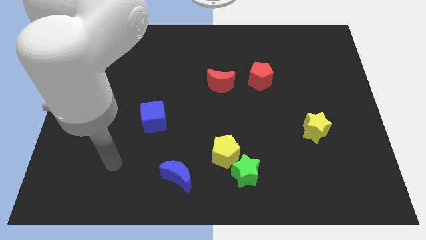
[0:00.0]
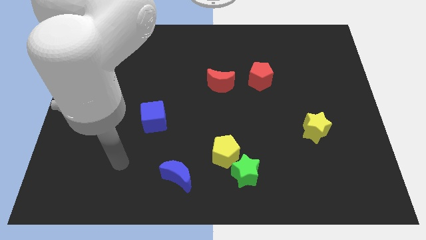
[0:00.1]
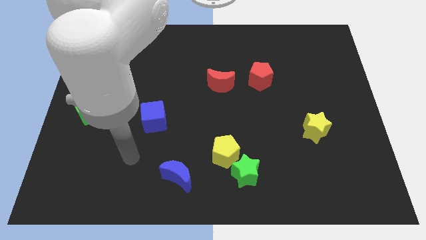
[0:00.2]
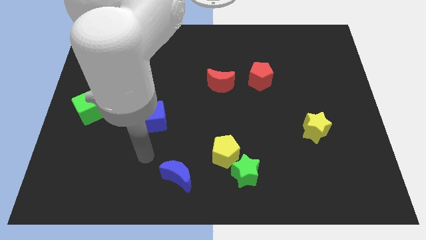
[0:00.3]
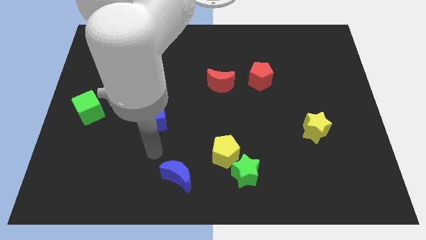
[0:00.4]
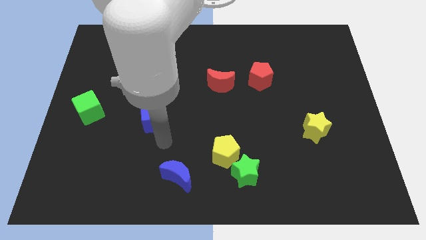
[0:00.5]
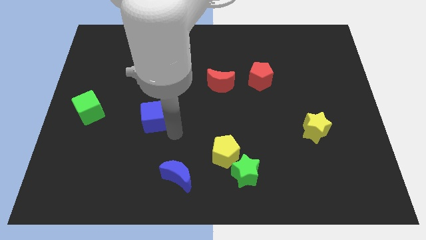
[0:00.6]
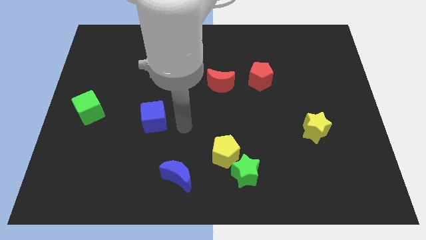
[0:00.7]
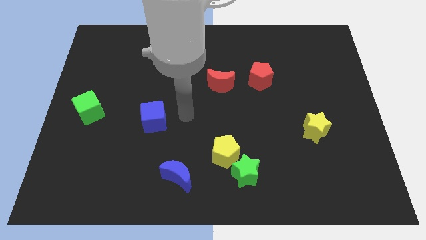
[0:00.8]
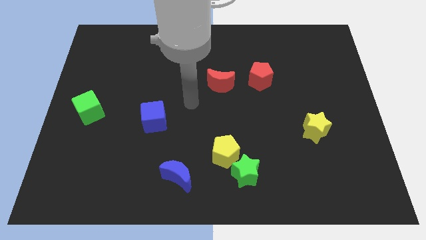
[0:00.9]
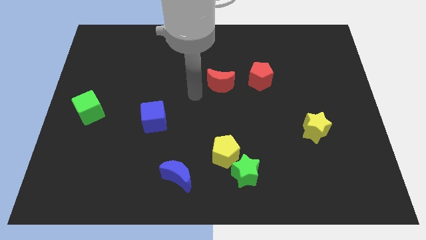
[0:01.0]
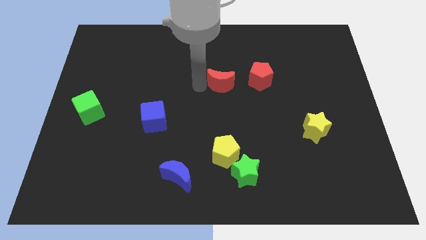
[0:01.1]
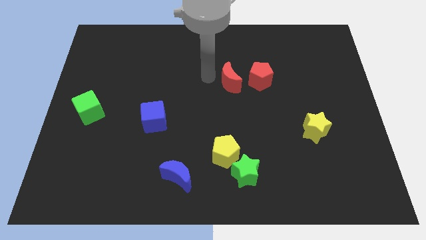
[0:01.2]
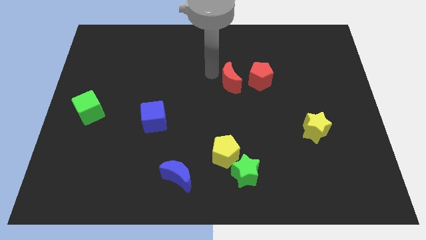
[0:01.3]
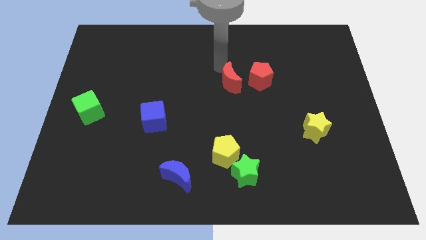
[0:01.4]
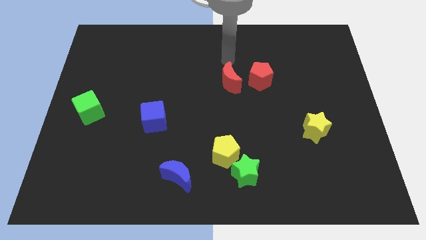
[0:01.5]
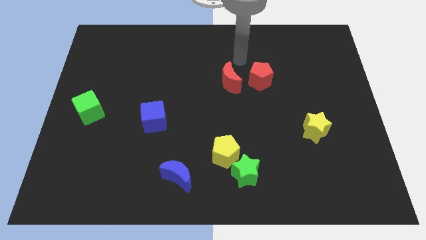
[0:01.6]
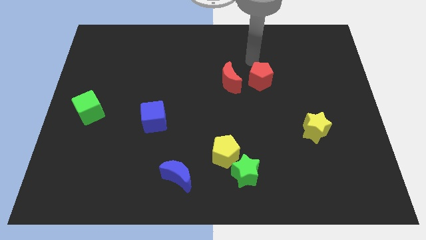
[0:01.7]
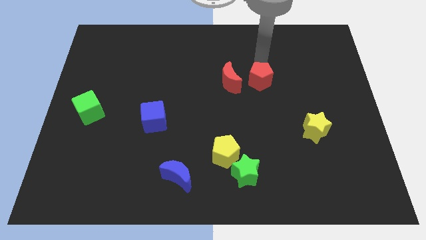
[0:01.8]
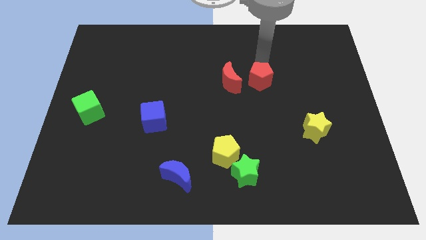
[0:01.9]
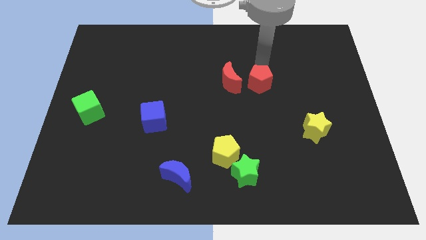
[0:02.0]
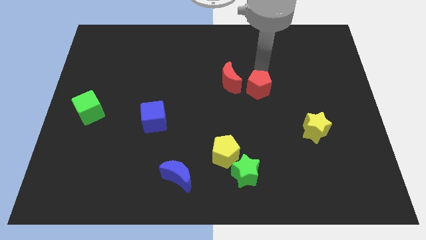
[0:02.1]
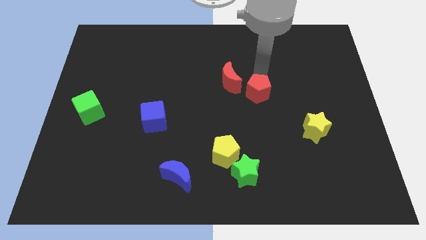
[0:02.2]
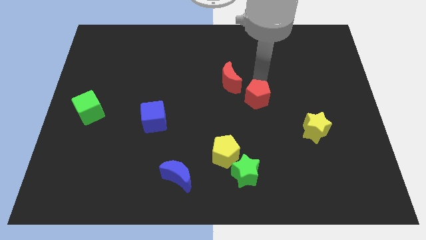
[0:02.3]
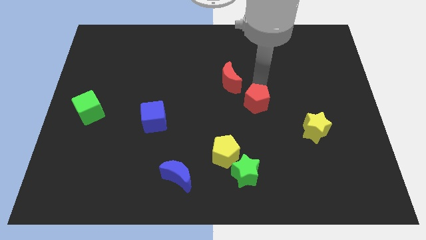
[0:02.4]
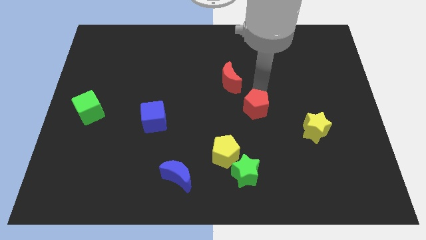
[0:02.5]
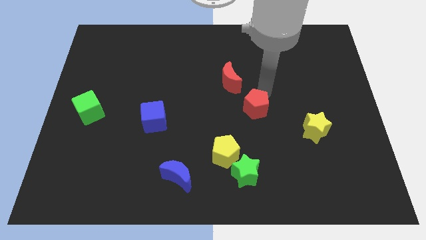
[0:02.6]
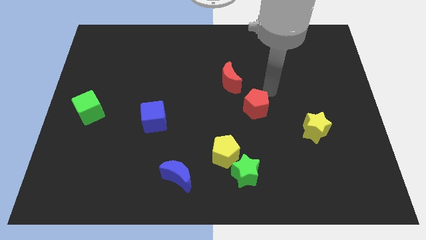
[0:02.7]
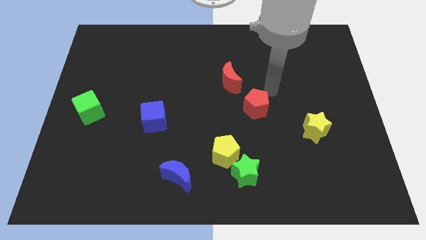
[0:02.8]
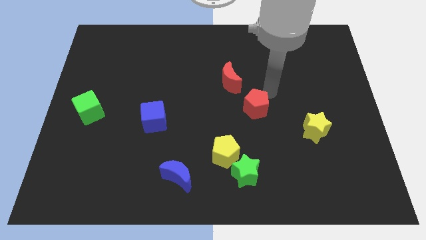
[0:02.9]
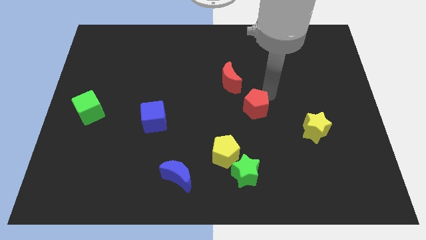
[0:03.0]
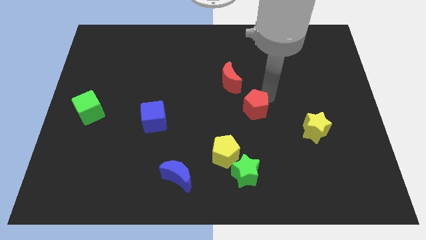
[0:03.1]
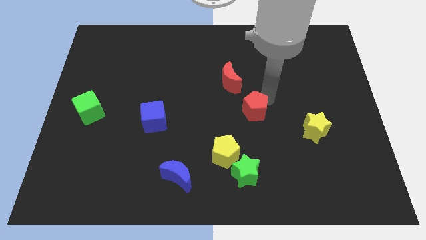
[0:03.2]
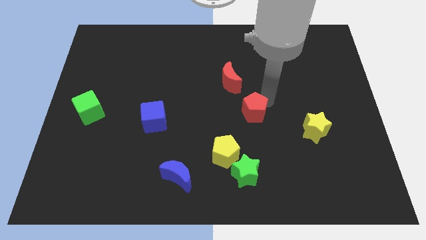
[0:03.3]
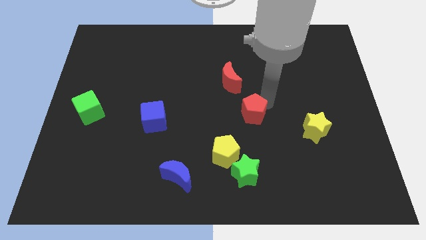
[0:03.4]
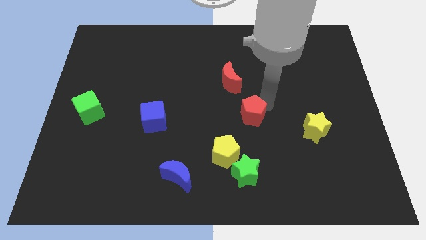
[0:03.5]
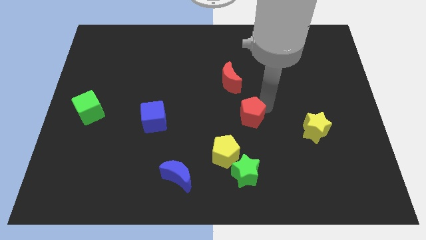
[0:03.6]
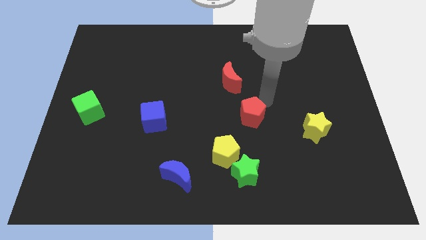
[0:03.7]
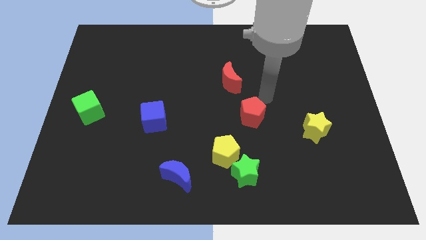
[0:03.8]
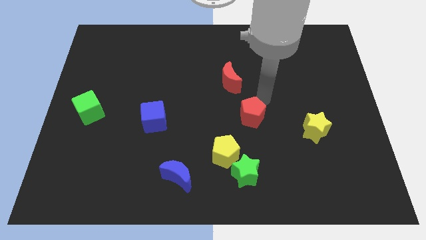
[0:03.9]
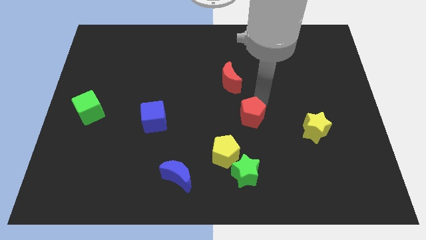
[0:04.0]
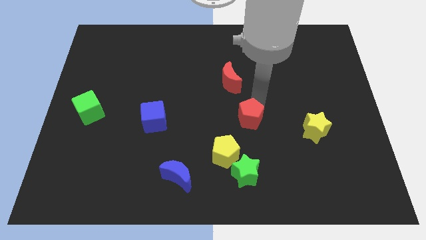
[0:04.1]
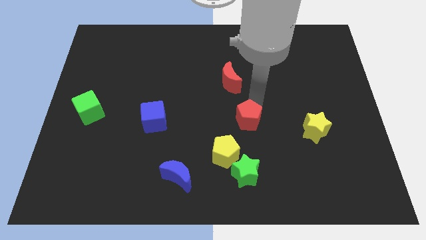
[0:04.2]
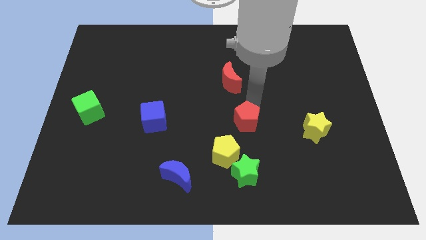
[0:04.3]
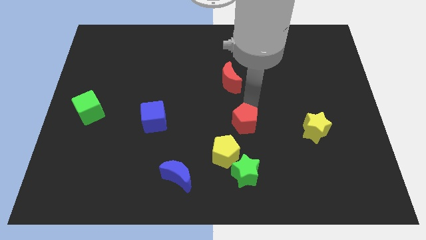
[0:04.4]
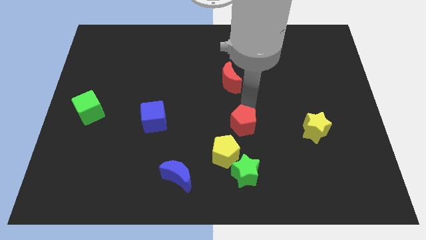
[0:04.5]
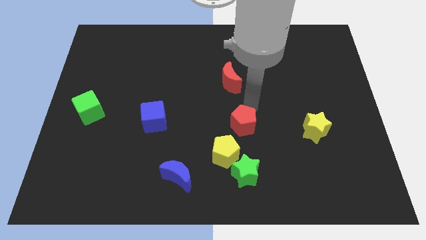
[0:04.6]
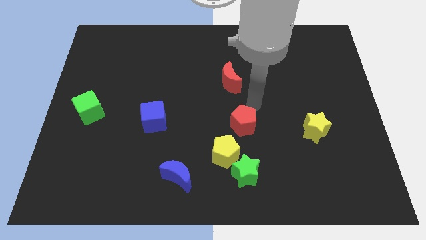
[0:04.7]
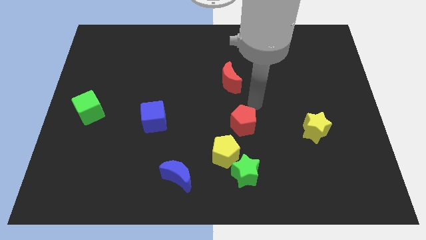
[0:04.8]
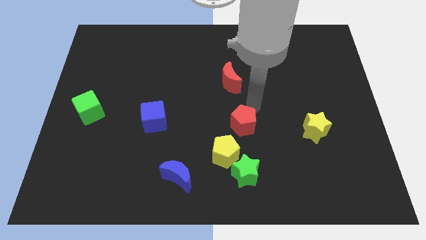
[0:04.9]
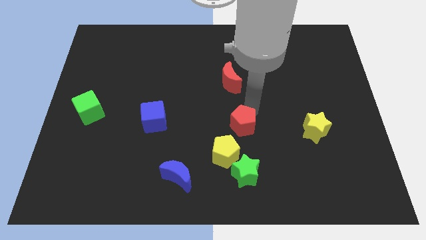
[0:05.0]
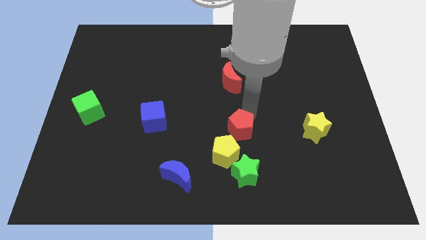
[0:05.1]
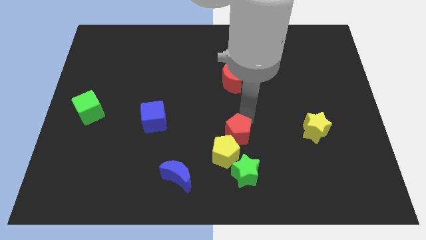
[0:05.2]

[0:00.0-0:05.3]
move the red pentagon towards the yellow pentagon

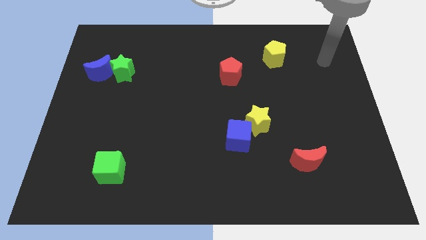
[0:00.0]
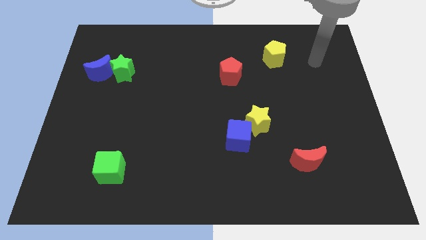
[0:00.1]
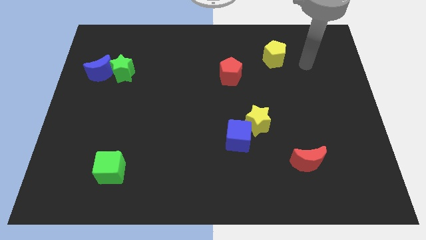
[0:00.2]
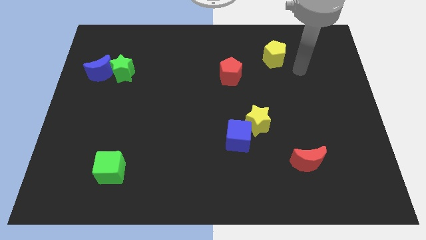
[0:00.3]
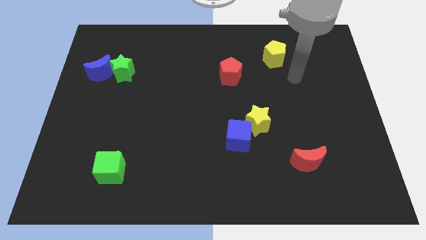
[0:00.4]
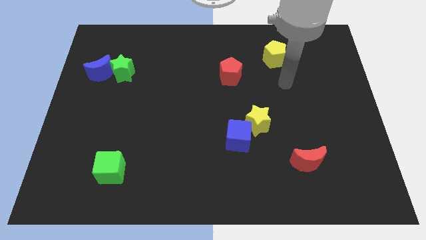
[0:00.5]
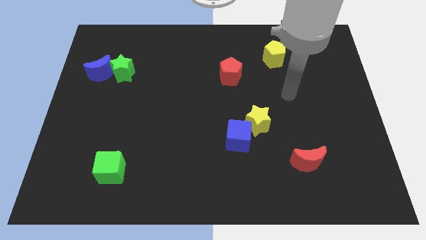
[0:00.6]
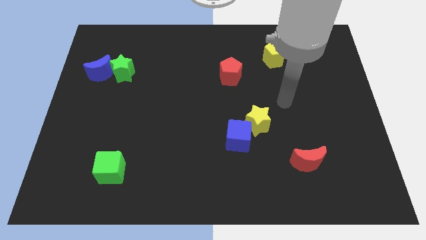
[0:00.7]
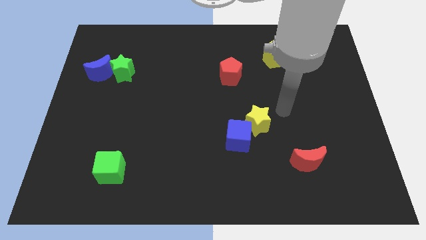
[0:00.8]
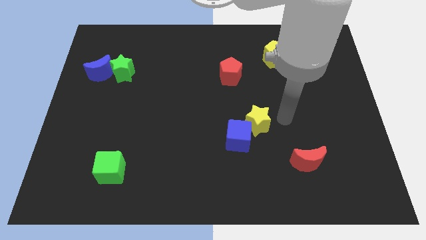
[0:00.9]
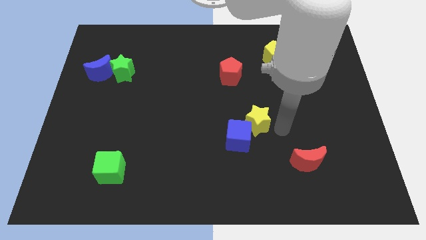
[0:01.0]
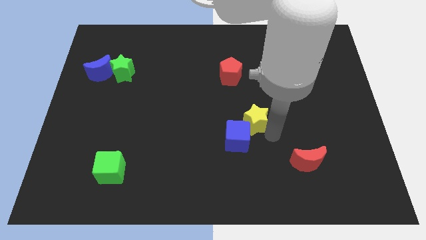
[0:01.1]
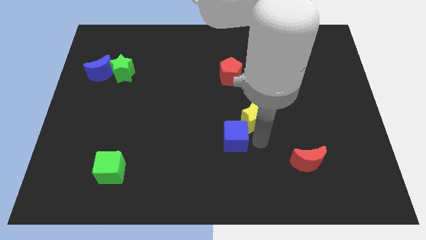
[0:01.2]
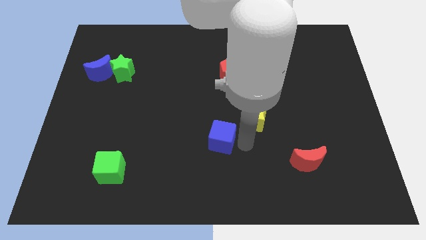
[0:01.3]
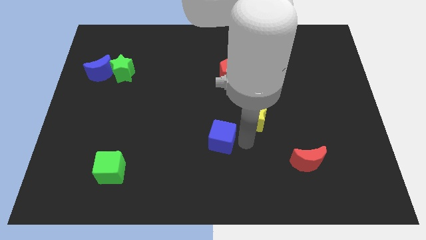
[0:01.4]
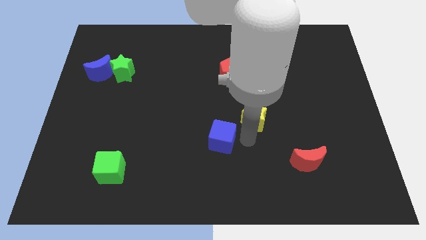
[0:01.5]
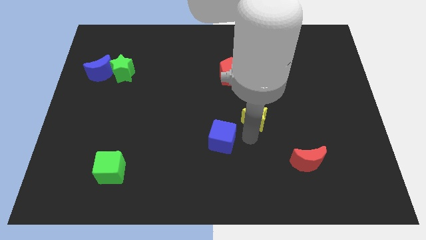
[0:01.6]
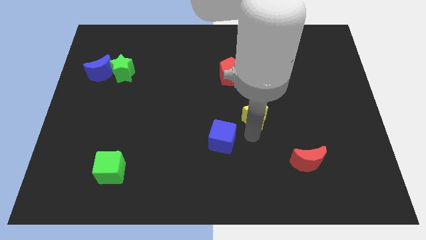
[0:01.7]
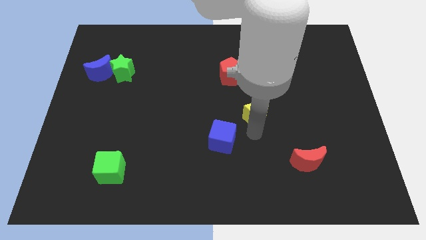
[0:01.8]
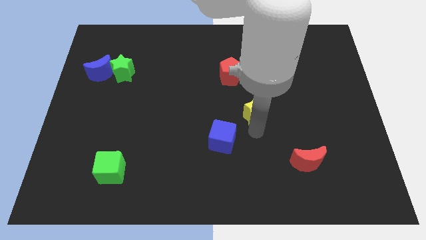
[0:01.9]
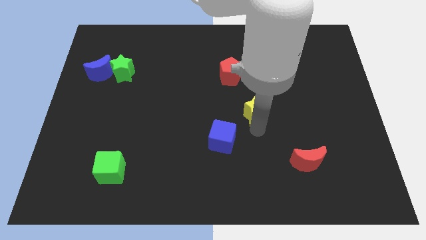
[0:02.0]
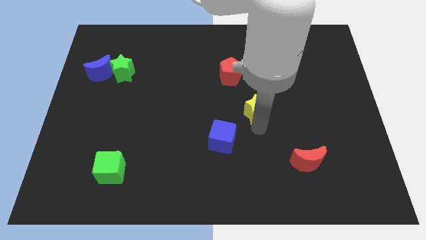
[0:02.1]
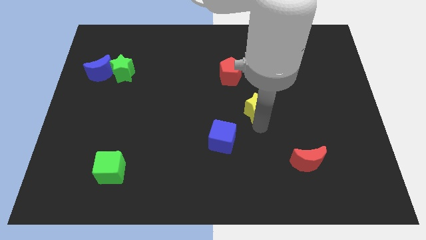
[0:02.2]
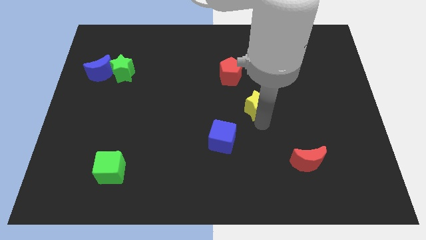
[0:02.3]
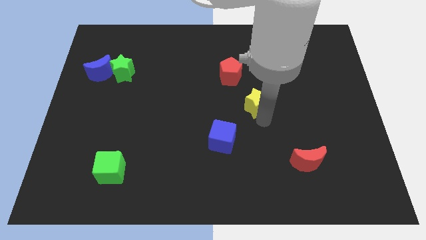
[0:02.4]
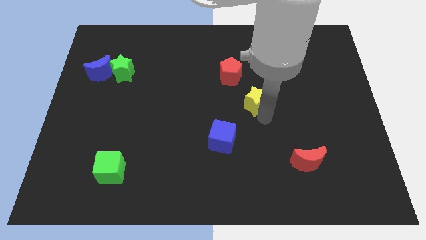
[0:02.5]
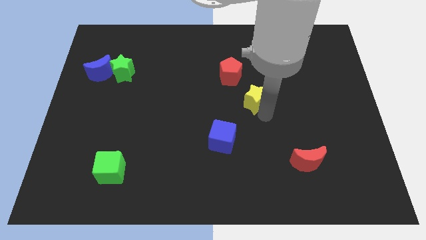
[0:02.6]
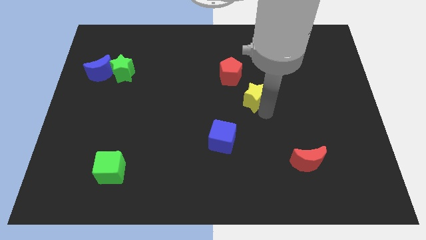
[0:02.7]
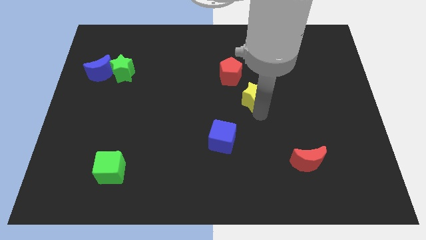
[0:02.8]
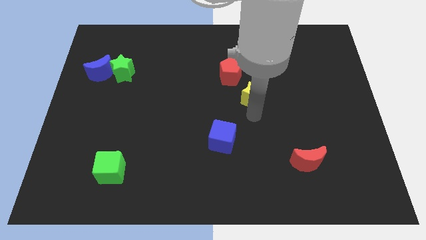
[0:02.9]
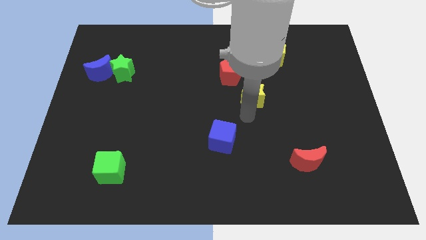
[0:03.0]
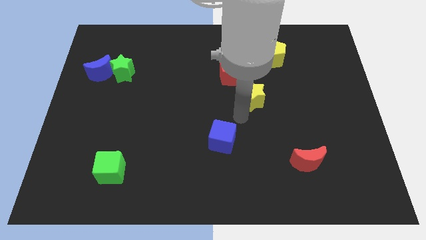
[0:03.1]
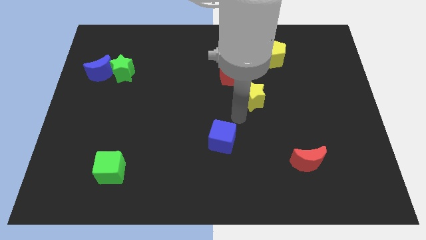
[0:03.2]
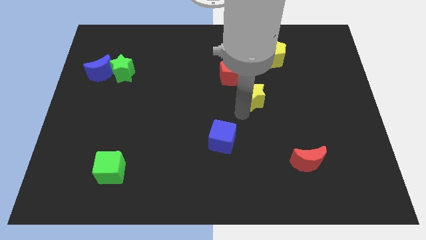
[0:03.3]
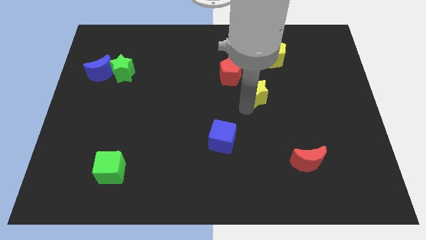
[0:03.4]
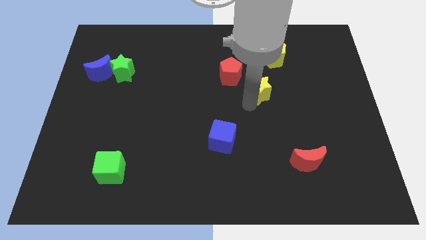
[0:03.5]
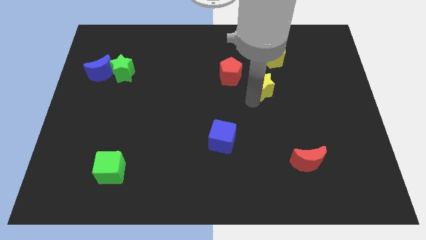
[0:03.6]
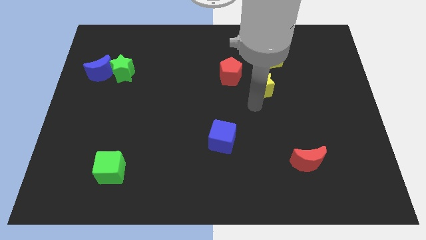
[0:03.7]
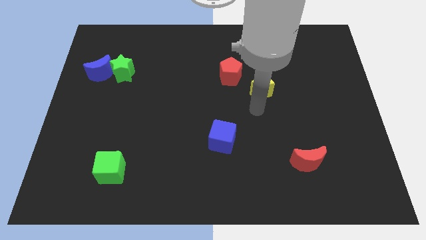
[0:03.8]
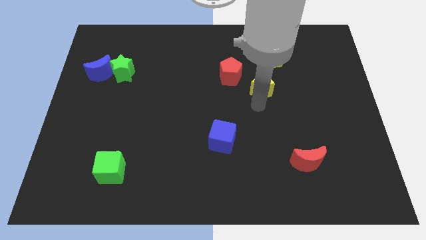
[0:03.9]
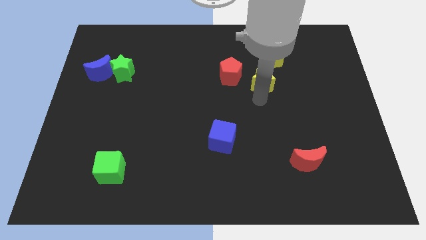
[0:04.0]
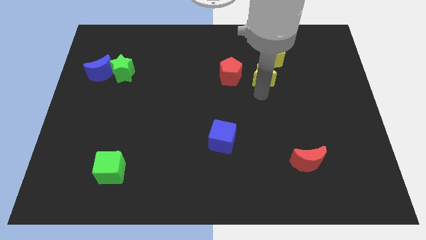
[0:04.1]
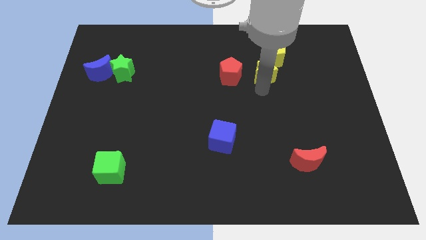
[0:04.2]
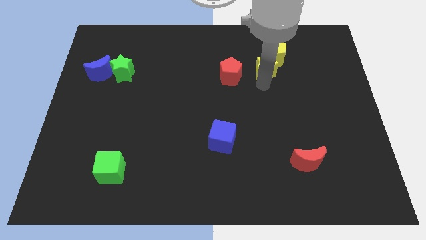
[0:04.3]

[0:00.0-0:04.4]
slide the yellow star next to the yellow pentagon
